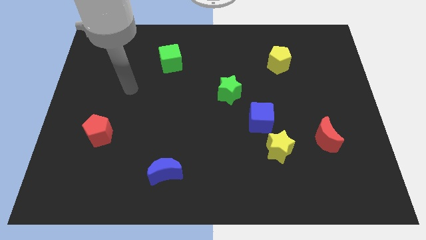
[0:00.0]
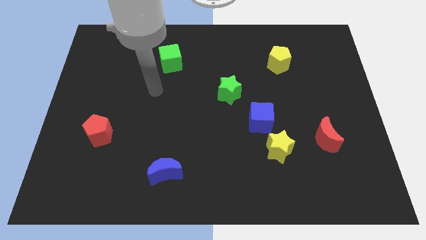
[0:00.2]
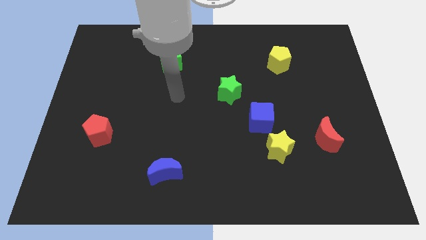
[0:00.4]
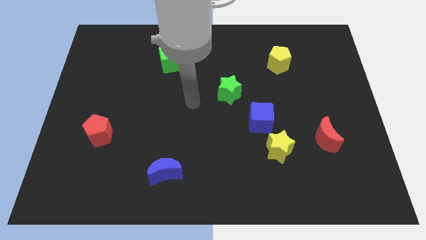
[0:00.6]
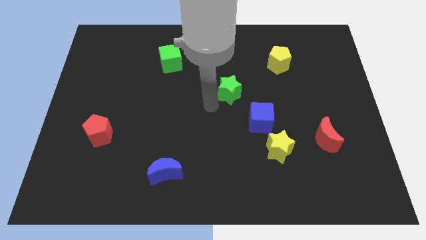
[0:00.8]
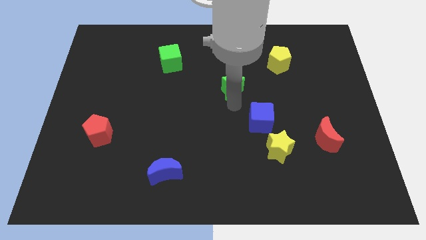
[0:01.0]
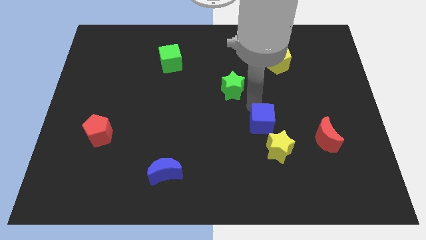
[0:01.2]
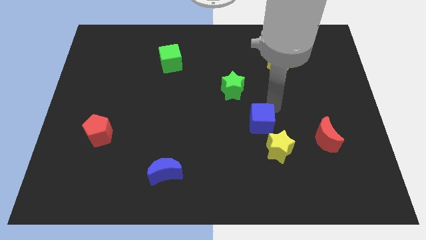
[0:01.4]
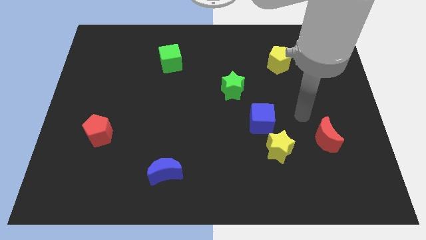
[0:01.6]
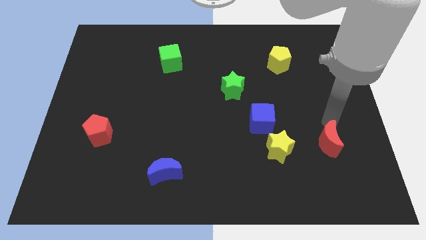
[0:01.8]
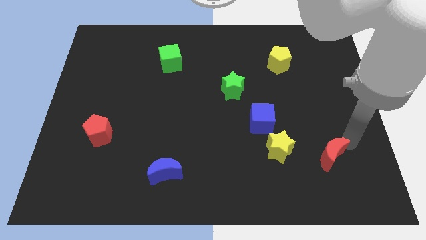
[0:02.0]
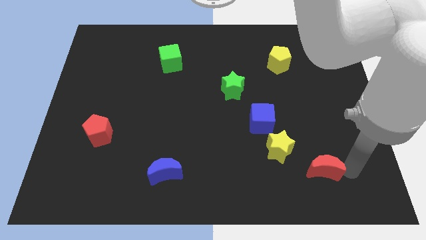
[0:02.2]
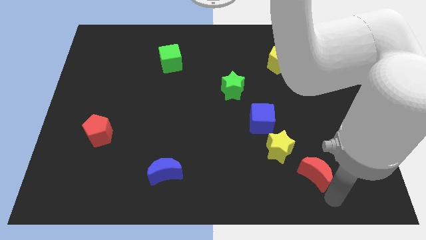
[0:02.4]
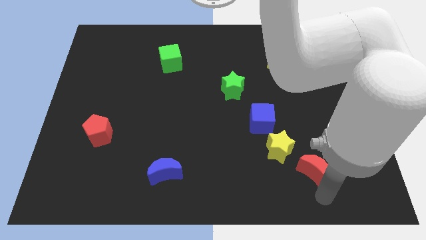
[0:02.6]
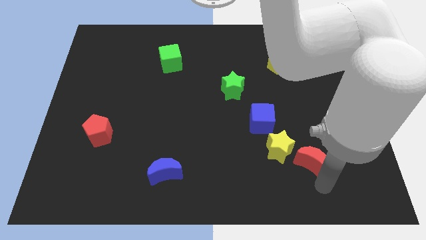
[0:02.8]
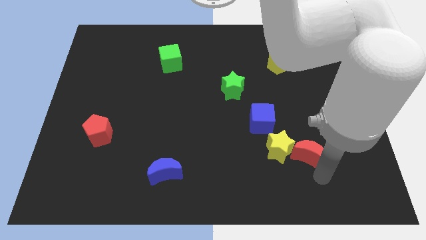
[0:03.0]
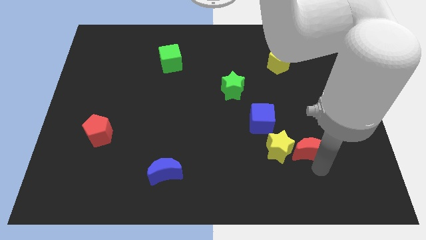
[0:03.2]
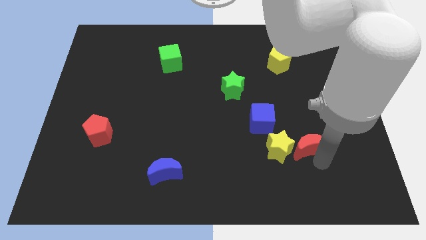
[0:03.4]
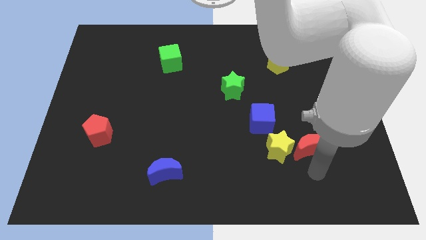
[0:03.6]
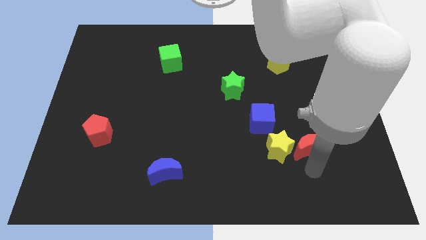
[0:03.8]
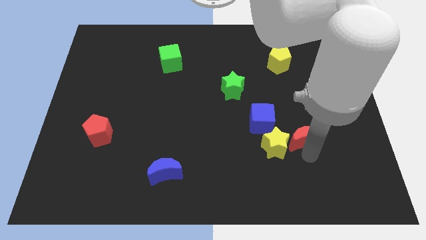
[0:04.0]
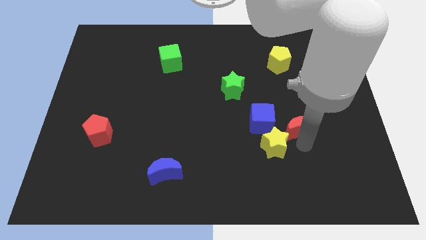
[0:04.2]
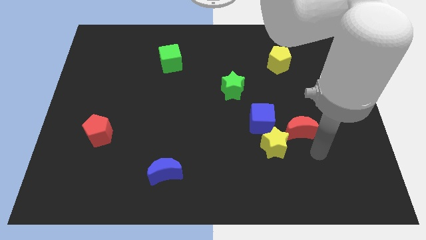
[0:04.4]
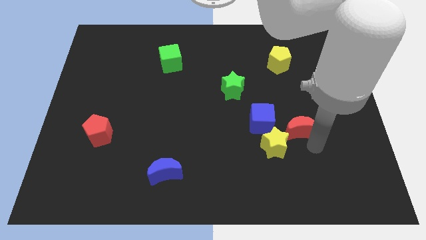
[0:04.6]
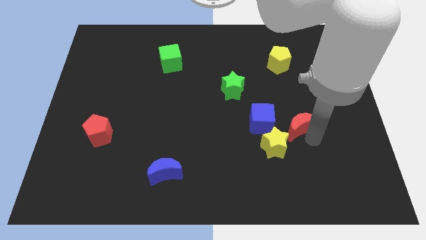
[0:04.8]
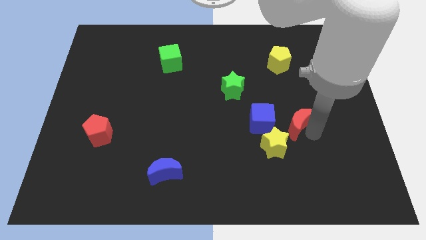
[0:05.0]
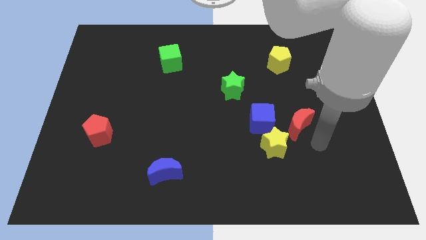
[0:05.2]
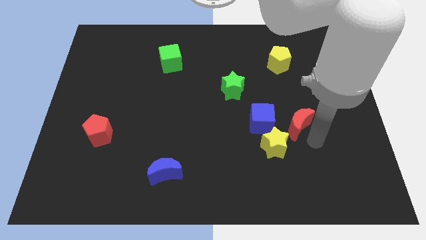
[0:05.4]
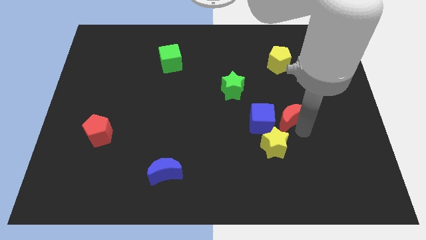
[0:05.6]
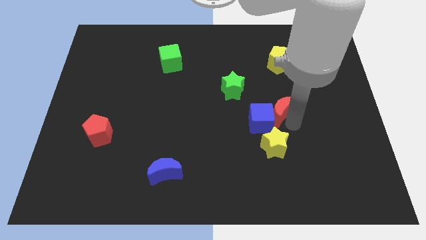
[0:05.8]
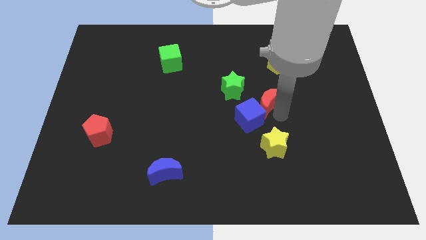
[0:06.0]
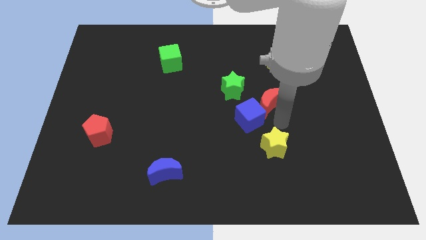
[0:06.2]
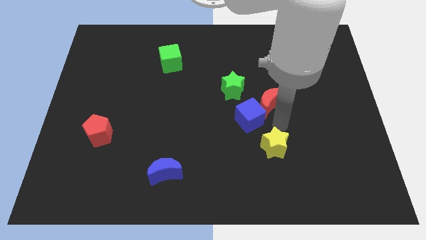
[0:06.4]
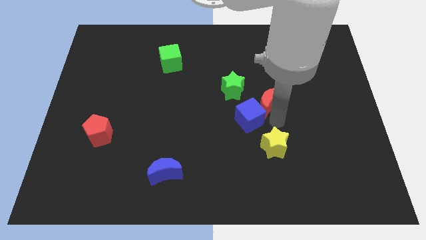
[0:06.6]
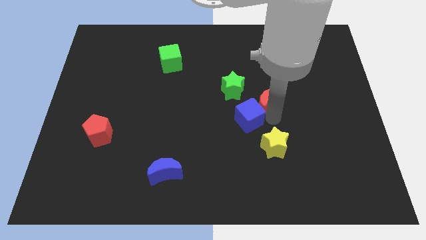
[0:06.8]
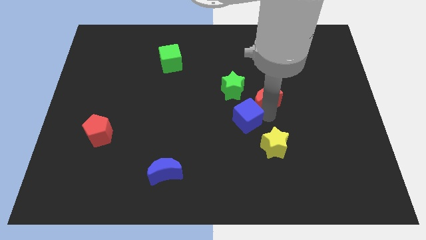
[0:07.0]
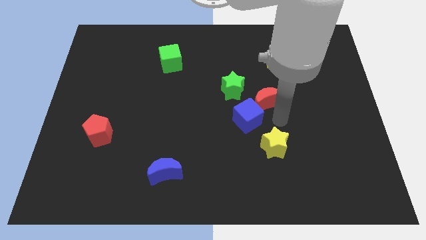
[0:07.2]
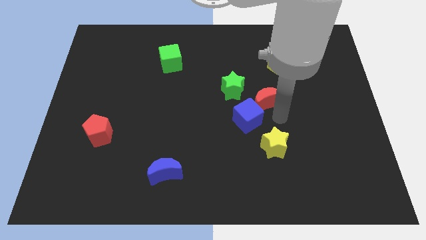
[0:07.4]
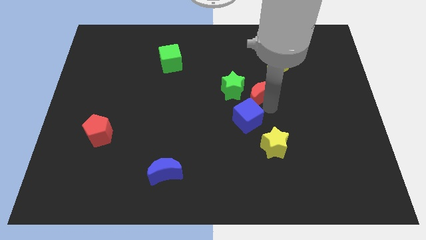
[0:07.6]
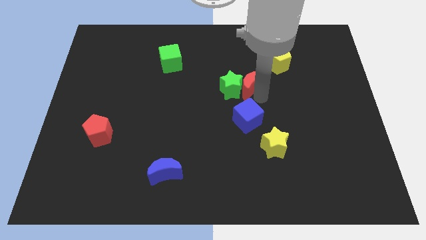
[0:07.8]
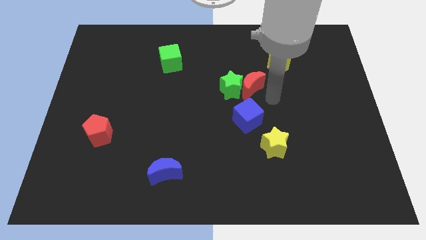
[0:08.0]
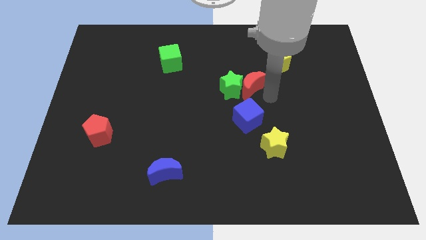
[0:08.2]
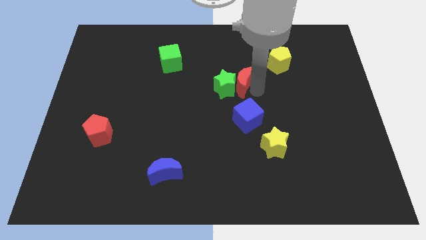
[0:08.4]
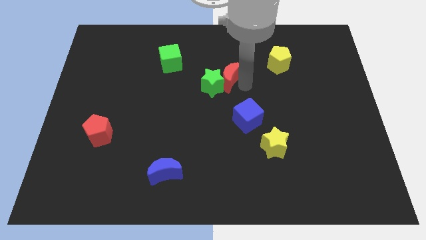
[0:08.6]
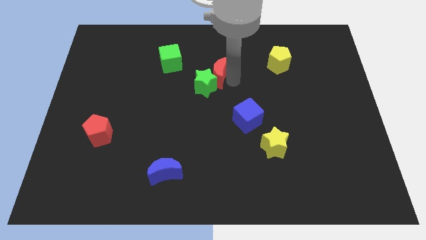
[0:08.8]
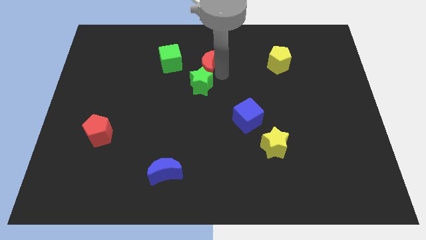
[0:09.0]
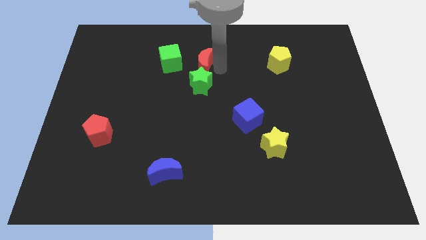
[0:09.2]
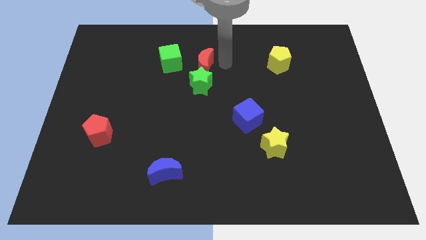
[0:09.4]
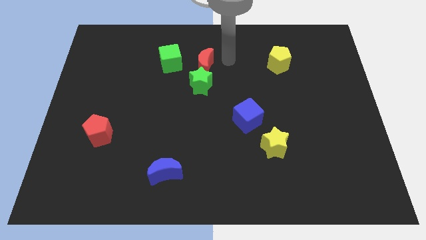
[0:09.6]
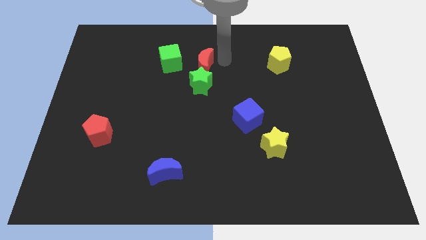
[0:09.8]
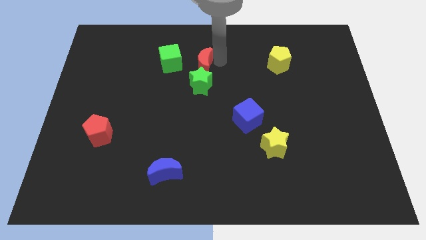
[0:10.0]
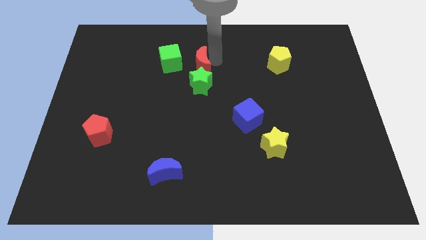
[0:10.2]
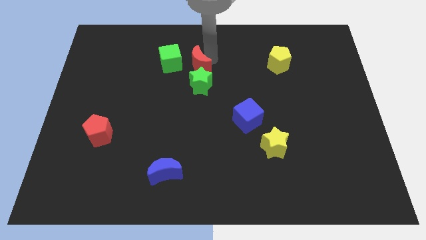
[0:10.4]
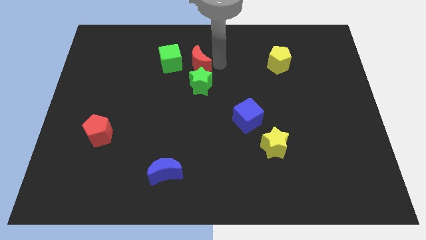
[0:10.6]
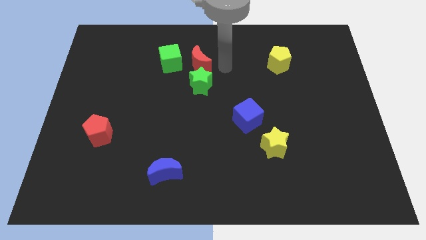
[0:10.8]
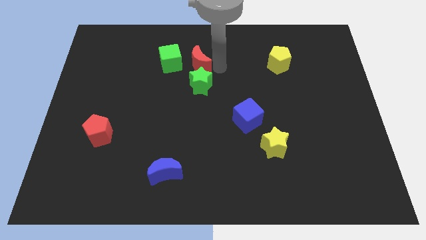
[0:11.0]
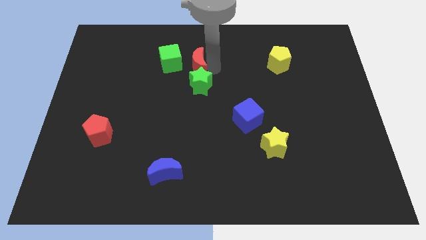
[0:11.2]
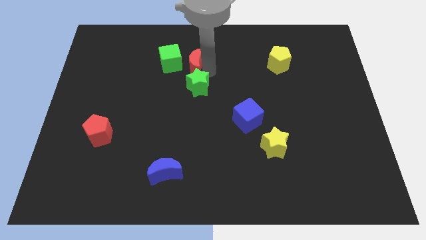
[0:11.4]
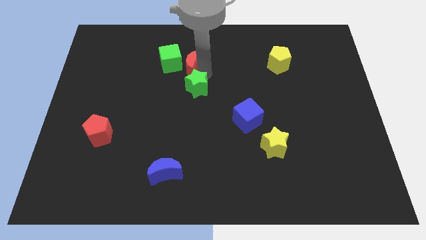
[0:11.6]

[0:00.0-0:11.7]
slide the red moon towards the green cube

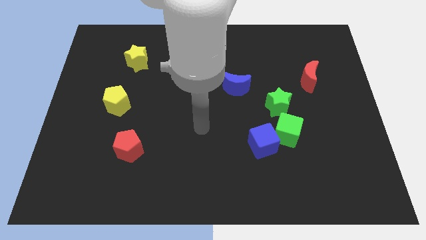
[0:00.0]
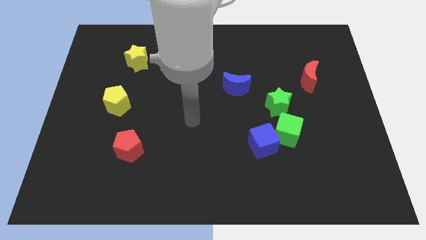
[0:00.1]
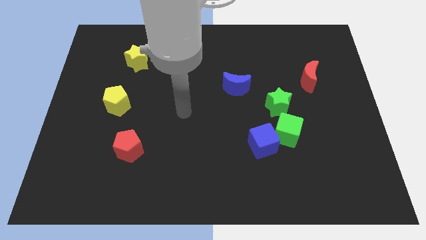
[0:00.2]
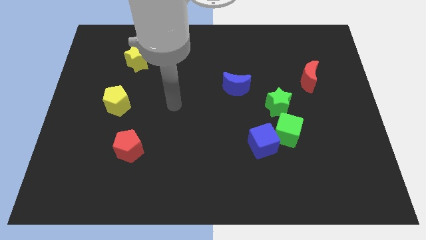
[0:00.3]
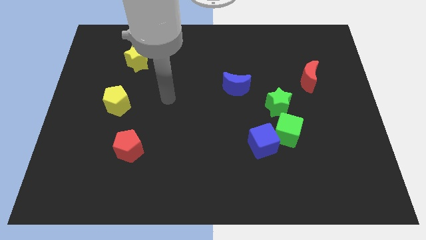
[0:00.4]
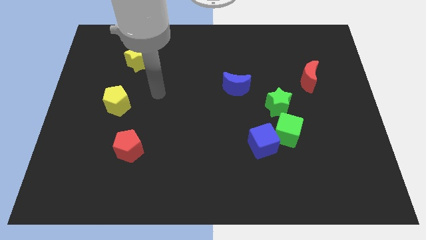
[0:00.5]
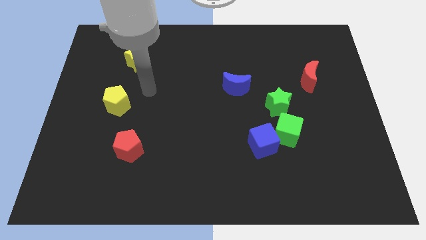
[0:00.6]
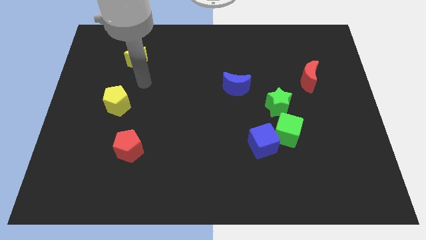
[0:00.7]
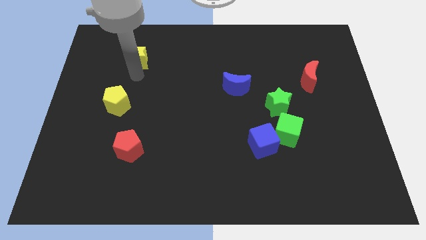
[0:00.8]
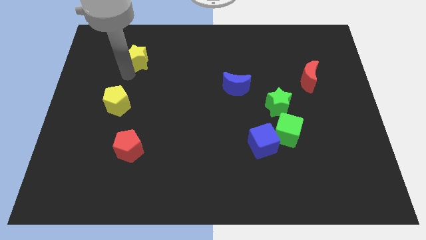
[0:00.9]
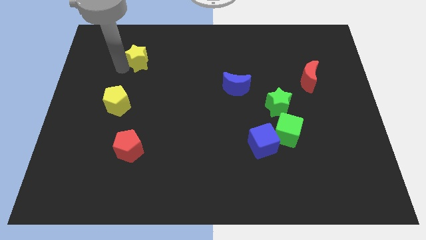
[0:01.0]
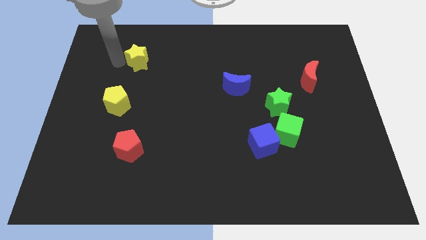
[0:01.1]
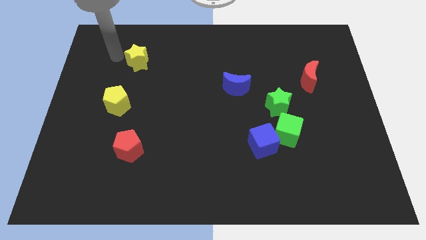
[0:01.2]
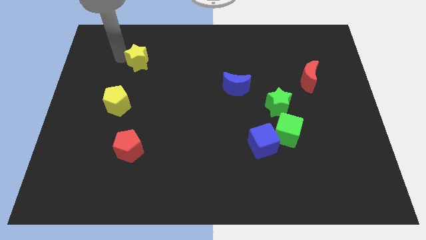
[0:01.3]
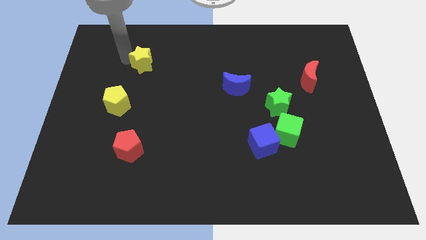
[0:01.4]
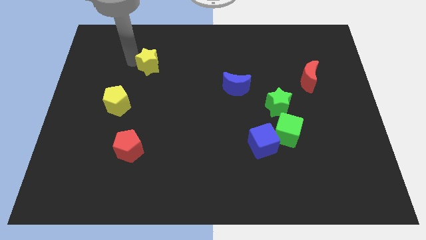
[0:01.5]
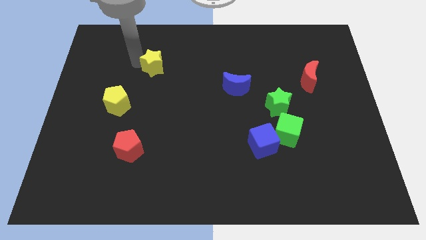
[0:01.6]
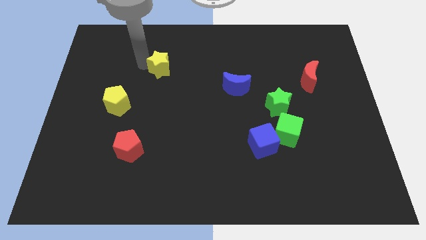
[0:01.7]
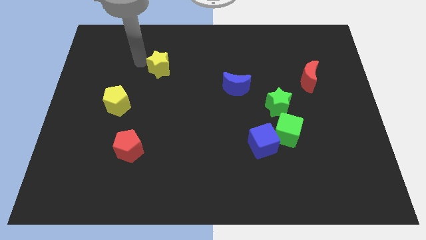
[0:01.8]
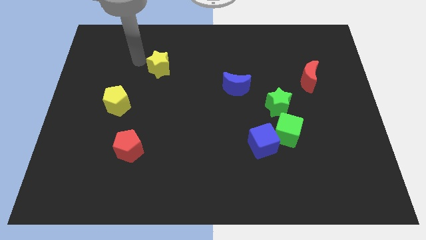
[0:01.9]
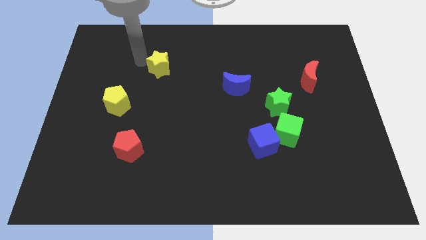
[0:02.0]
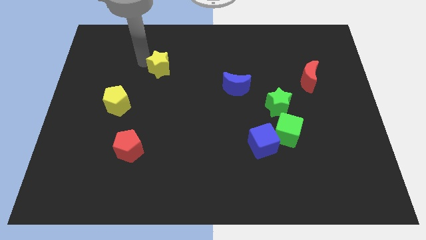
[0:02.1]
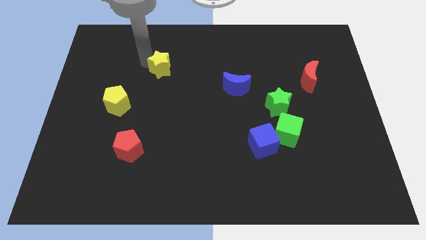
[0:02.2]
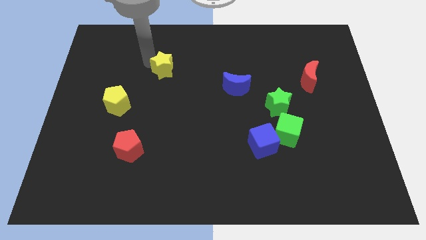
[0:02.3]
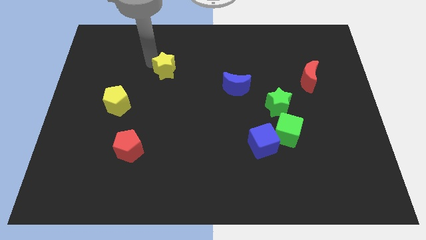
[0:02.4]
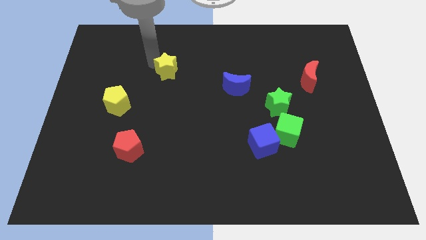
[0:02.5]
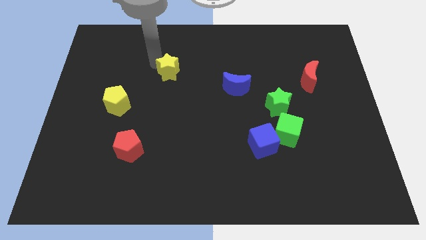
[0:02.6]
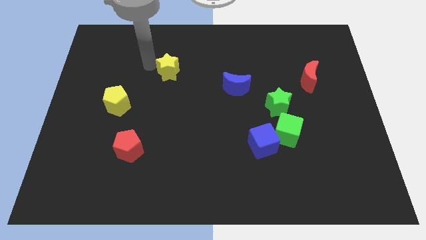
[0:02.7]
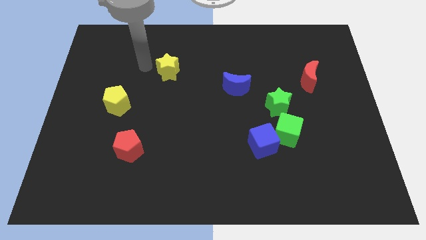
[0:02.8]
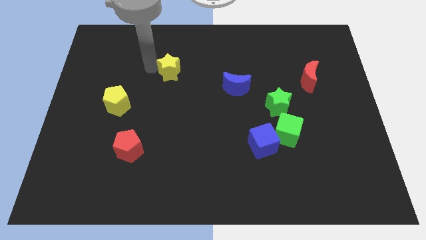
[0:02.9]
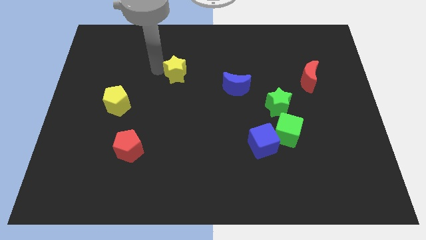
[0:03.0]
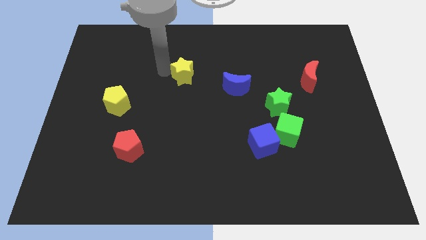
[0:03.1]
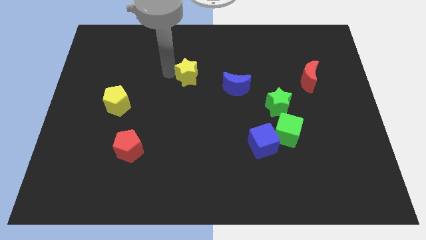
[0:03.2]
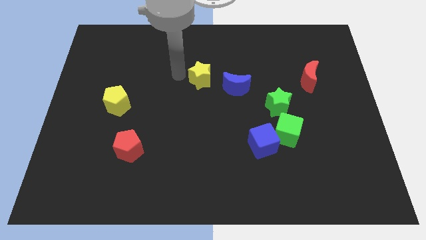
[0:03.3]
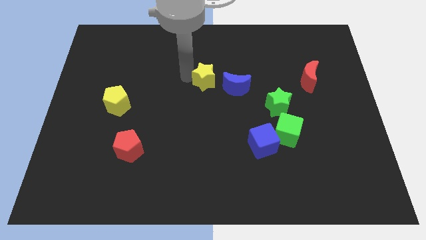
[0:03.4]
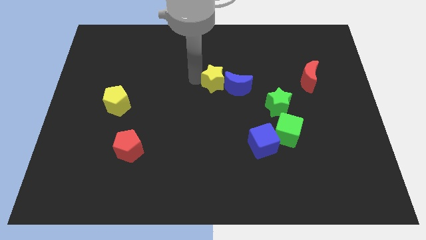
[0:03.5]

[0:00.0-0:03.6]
move the yellow star to the blue moon
